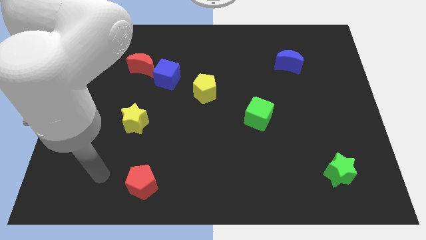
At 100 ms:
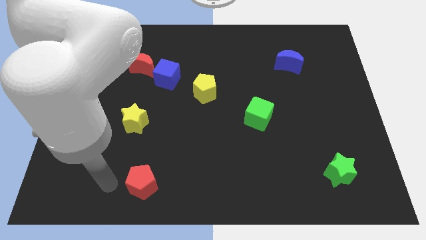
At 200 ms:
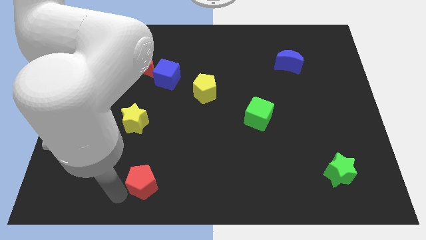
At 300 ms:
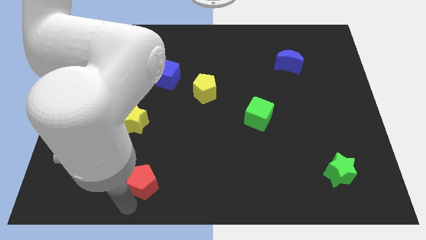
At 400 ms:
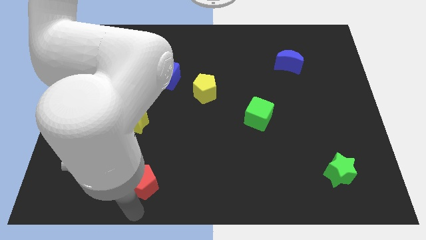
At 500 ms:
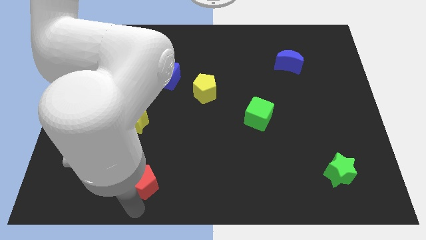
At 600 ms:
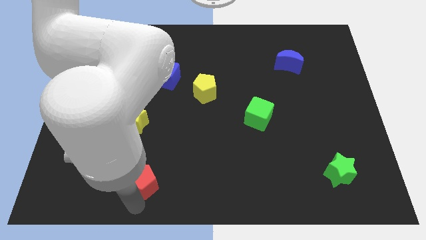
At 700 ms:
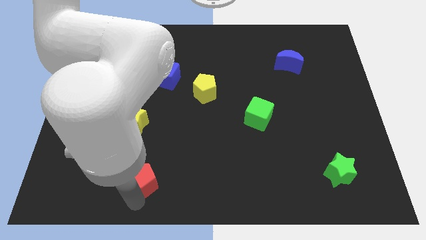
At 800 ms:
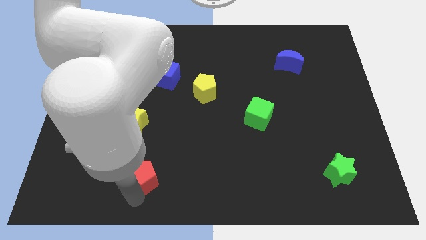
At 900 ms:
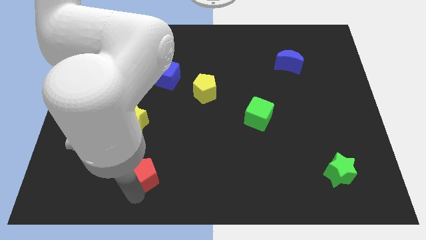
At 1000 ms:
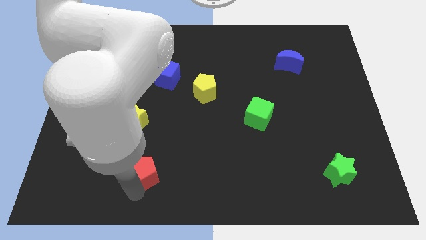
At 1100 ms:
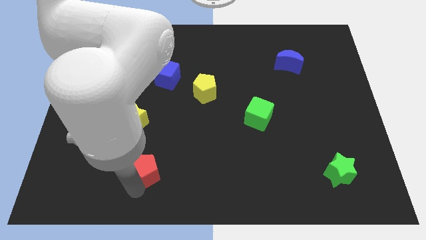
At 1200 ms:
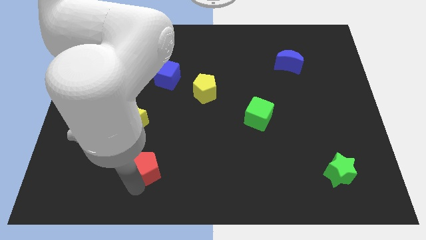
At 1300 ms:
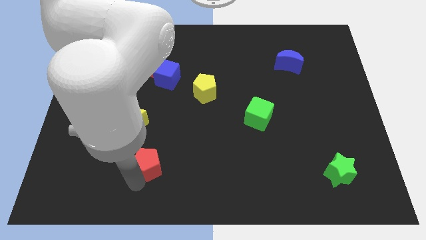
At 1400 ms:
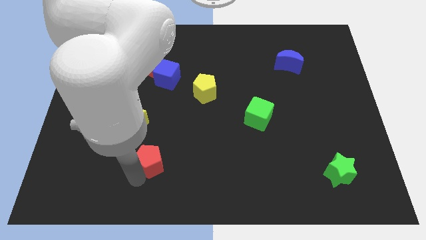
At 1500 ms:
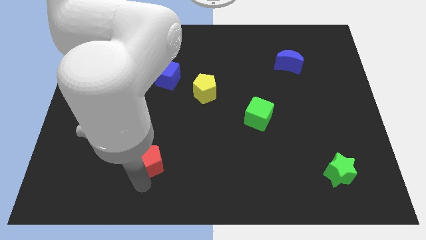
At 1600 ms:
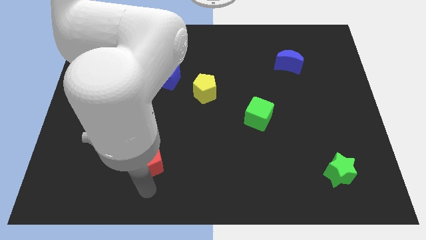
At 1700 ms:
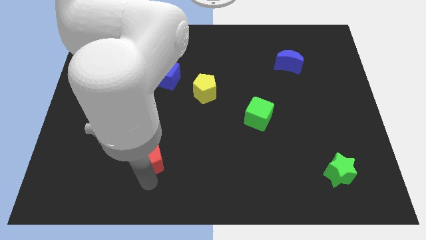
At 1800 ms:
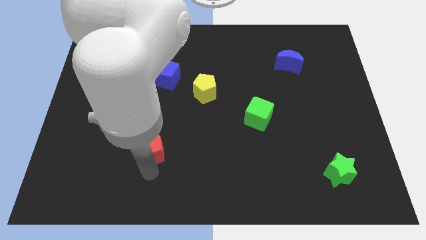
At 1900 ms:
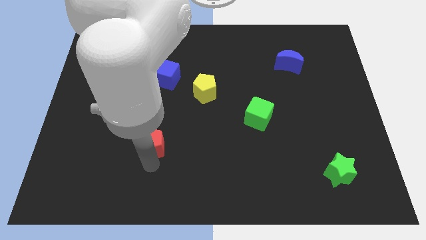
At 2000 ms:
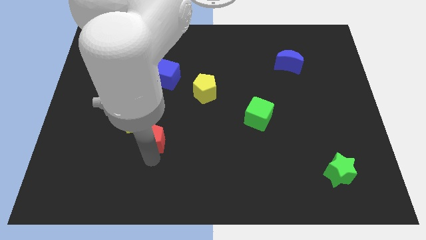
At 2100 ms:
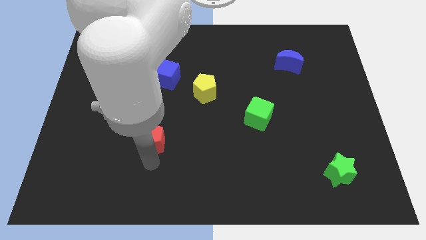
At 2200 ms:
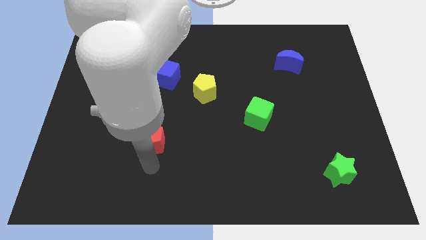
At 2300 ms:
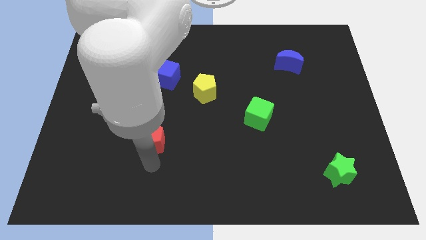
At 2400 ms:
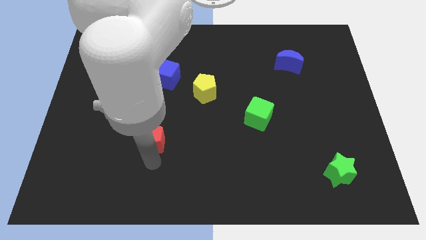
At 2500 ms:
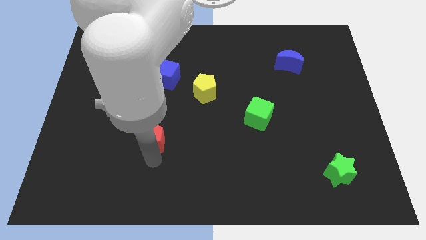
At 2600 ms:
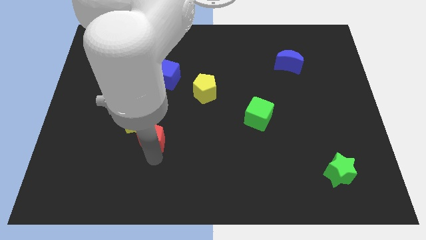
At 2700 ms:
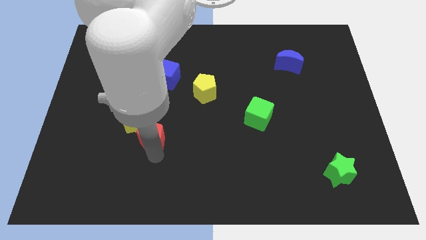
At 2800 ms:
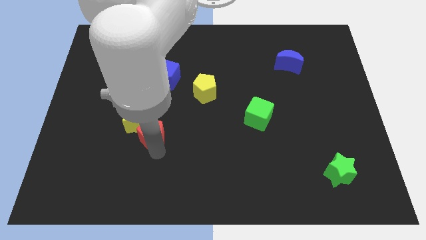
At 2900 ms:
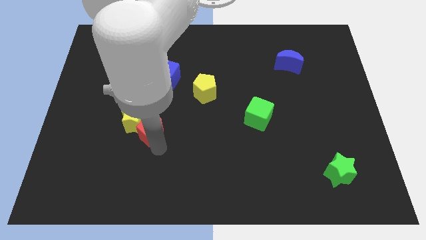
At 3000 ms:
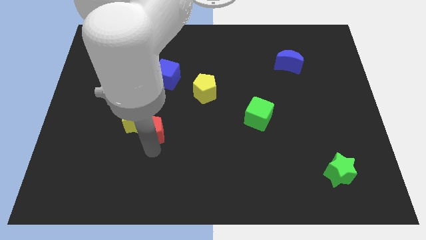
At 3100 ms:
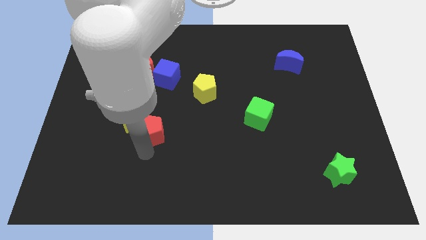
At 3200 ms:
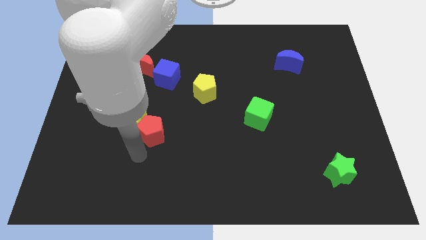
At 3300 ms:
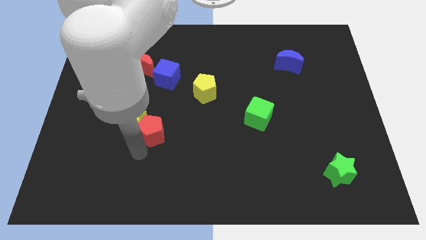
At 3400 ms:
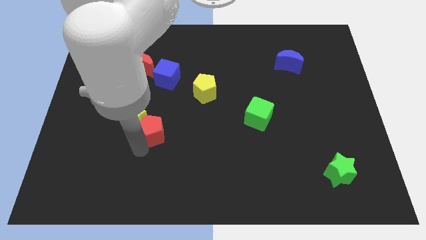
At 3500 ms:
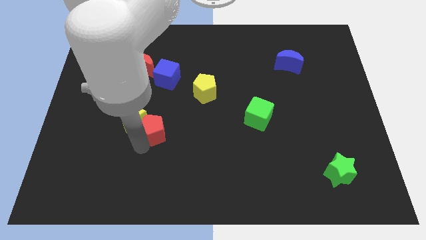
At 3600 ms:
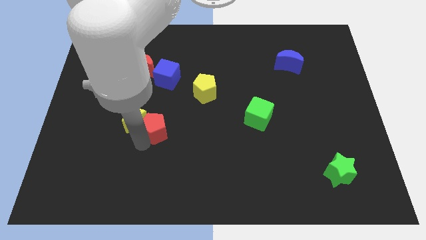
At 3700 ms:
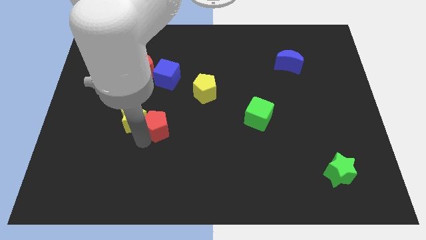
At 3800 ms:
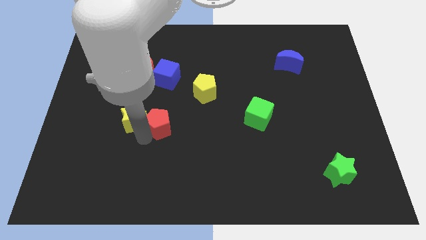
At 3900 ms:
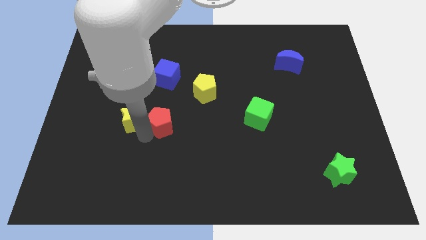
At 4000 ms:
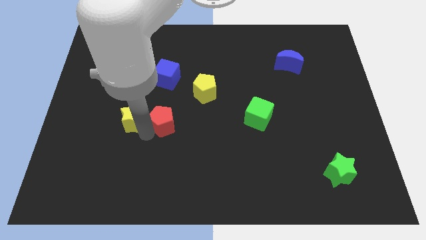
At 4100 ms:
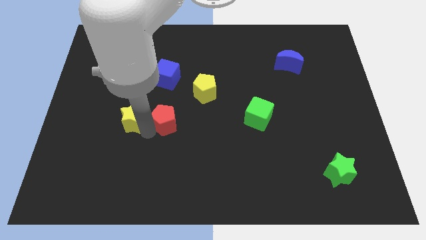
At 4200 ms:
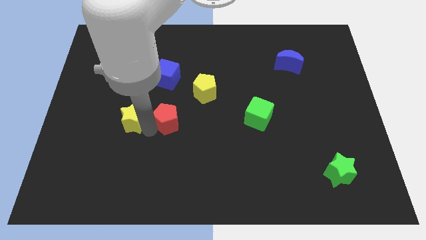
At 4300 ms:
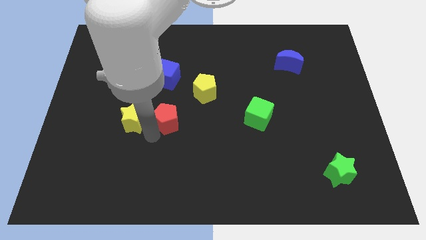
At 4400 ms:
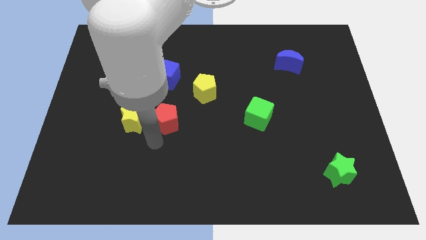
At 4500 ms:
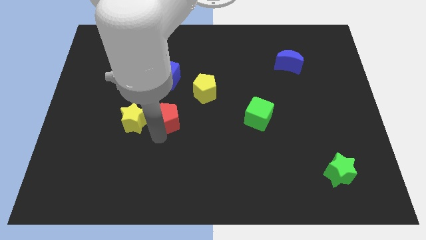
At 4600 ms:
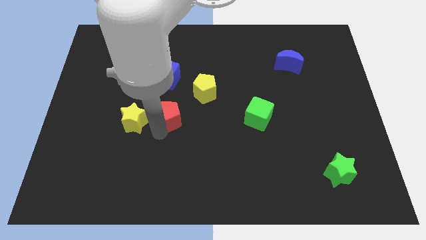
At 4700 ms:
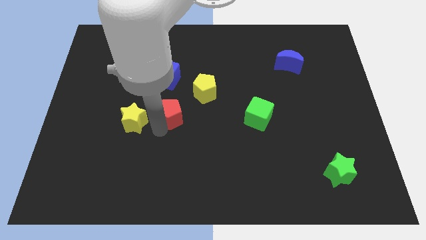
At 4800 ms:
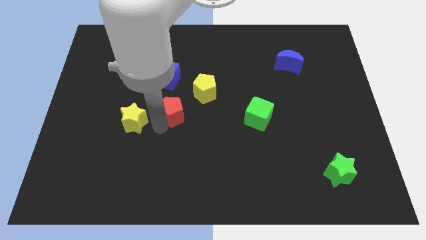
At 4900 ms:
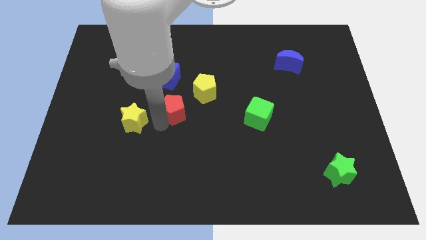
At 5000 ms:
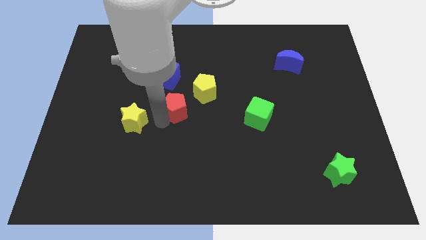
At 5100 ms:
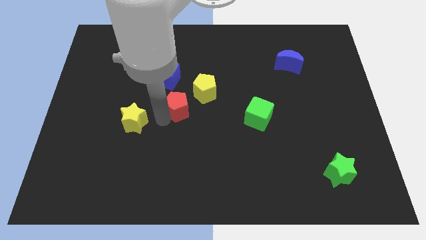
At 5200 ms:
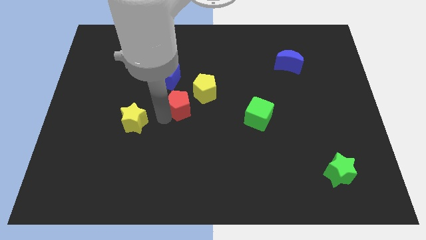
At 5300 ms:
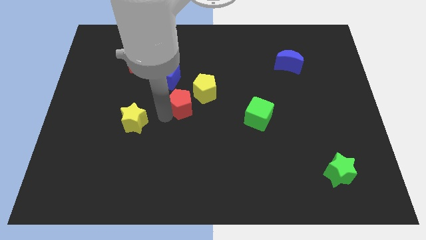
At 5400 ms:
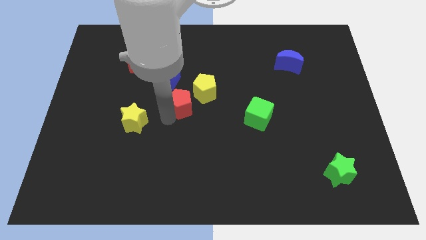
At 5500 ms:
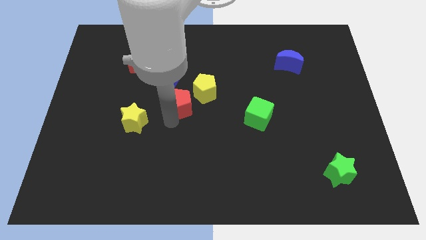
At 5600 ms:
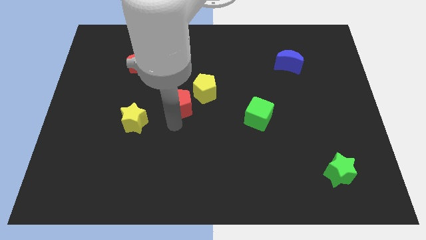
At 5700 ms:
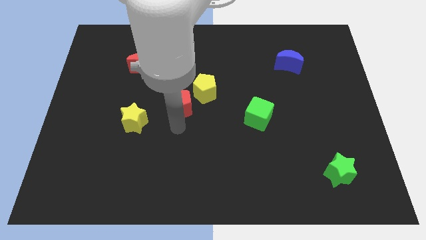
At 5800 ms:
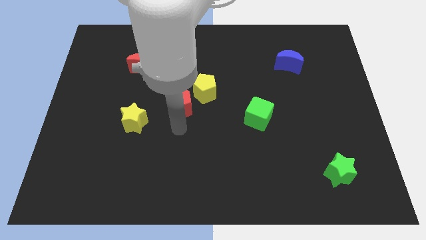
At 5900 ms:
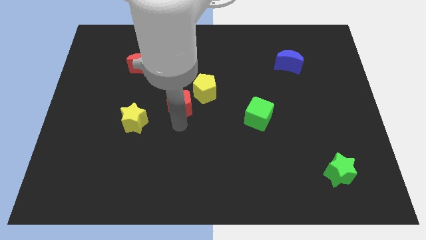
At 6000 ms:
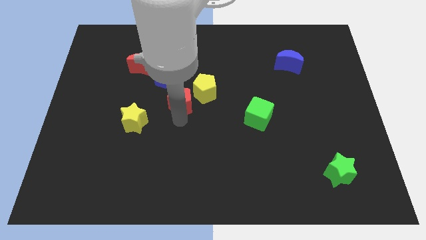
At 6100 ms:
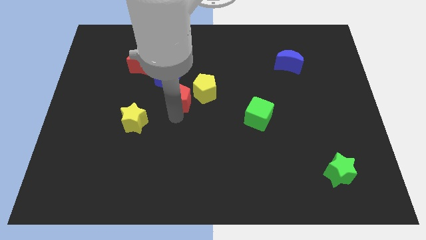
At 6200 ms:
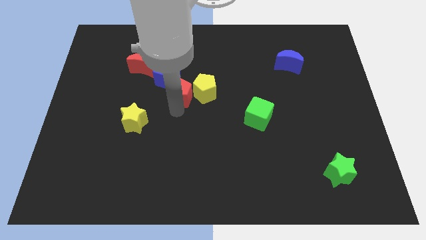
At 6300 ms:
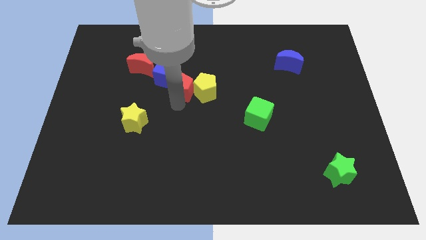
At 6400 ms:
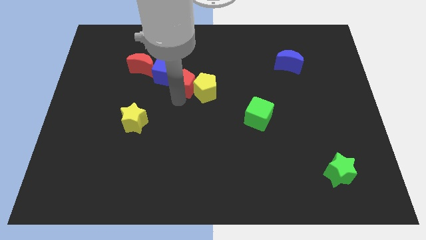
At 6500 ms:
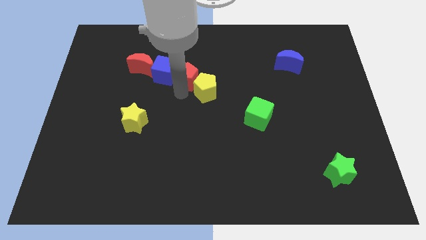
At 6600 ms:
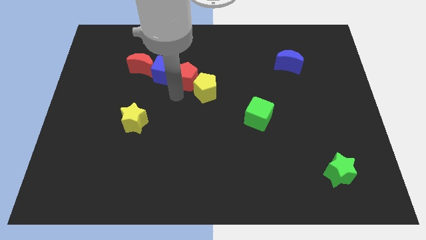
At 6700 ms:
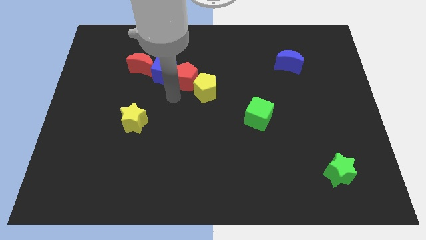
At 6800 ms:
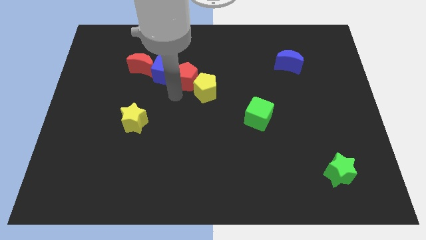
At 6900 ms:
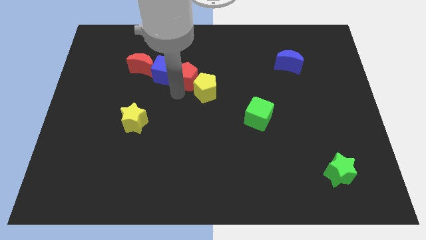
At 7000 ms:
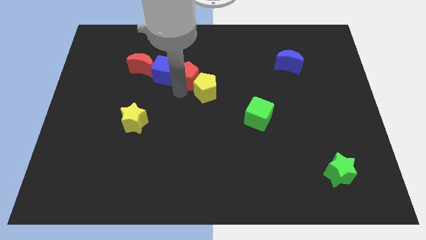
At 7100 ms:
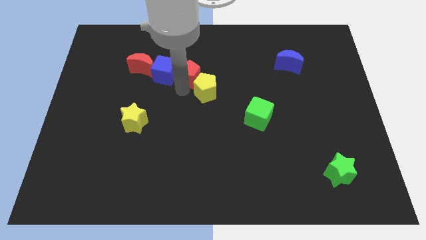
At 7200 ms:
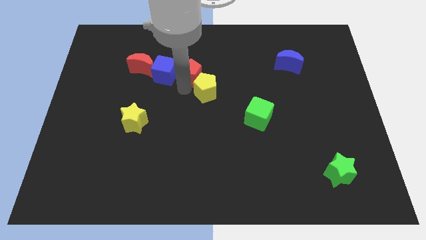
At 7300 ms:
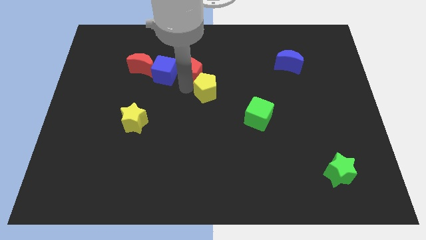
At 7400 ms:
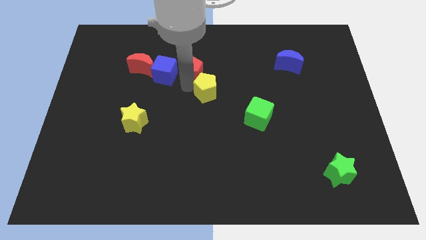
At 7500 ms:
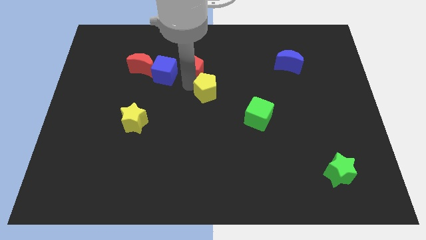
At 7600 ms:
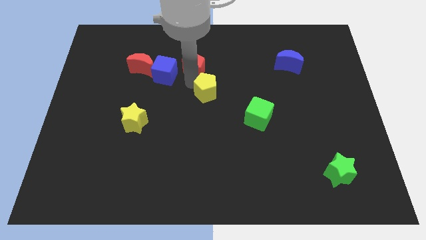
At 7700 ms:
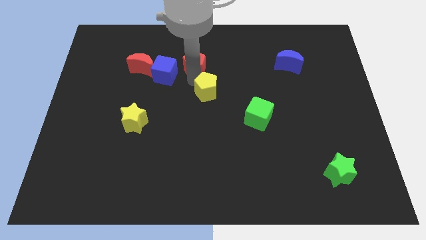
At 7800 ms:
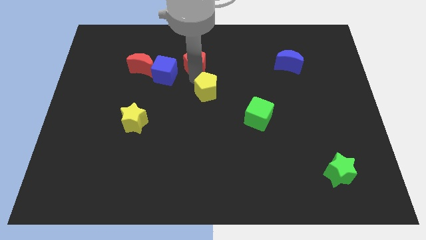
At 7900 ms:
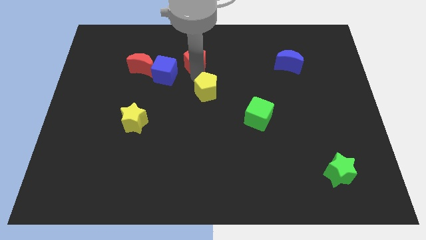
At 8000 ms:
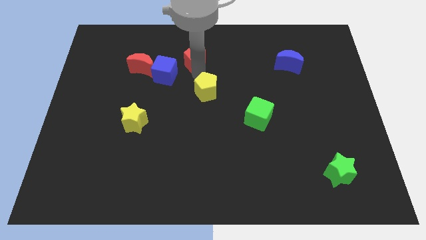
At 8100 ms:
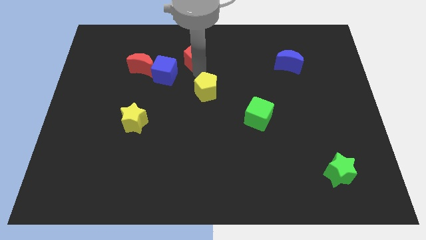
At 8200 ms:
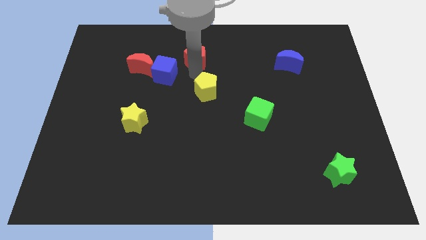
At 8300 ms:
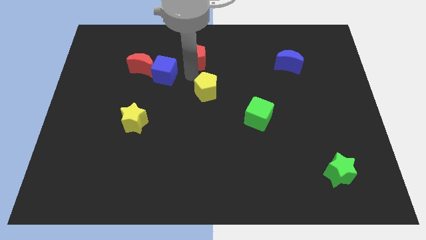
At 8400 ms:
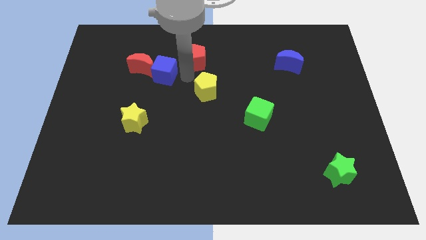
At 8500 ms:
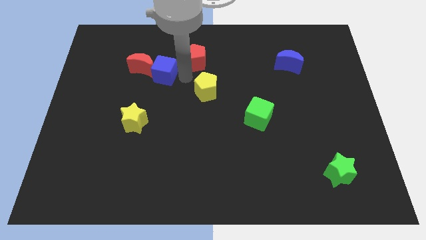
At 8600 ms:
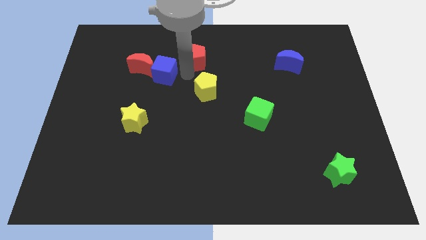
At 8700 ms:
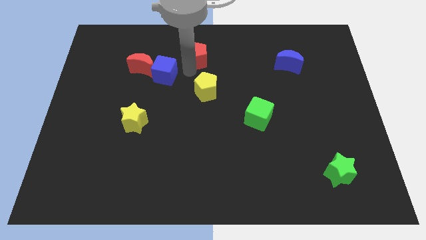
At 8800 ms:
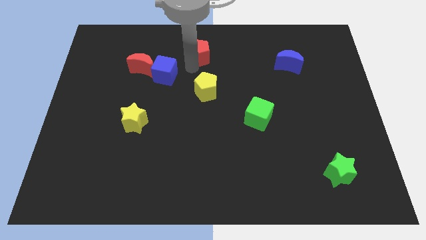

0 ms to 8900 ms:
slide the red pentagon to the top
